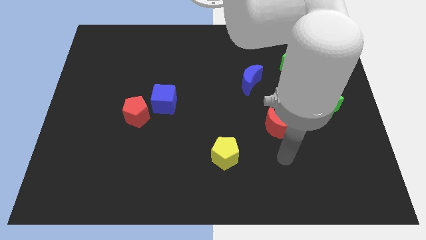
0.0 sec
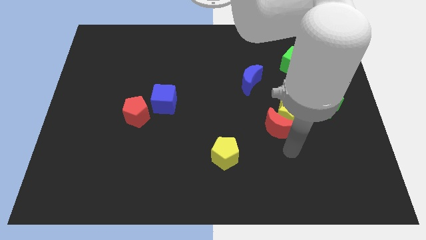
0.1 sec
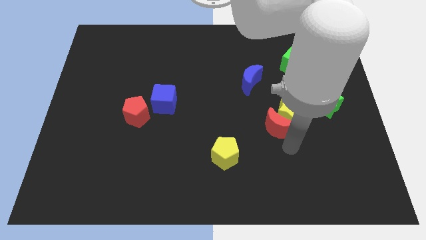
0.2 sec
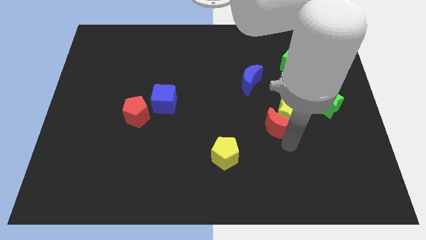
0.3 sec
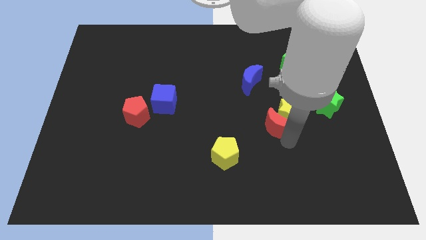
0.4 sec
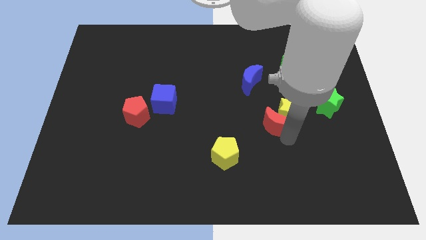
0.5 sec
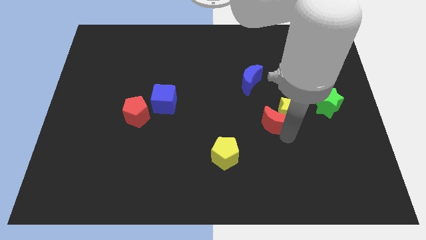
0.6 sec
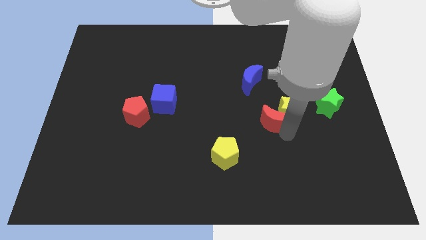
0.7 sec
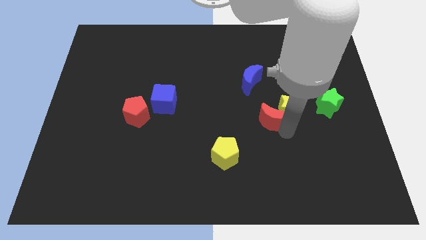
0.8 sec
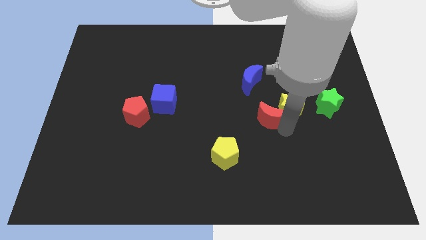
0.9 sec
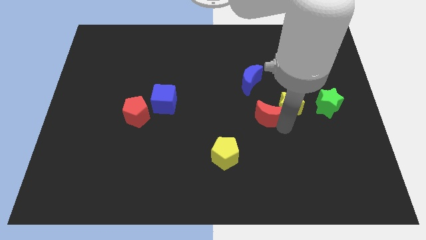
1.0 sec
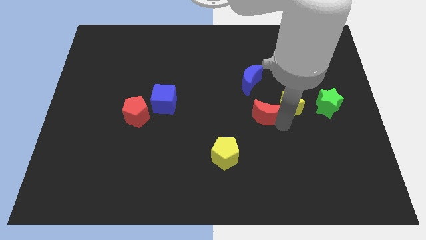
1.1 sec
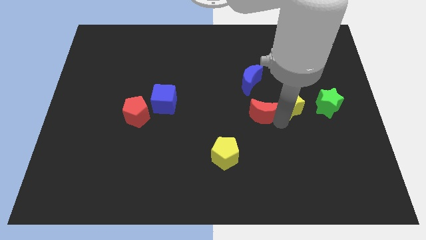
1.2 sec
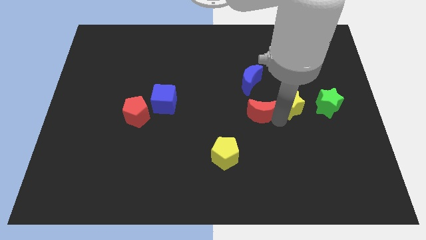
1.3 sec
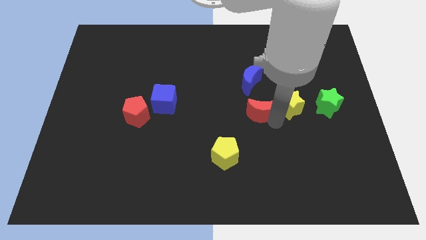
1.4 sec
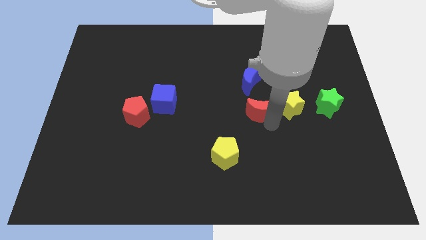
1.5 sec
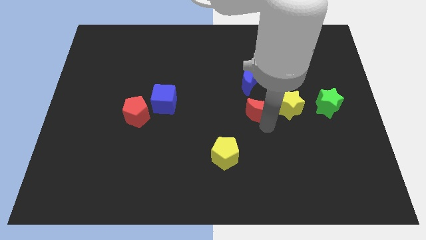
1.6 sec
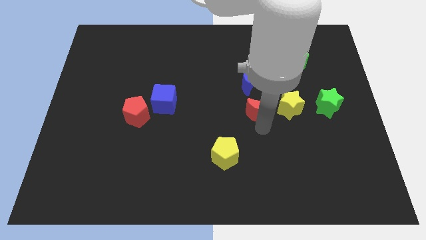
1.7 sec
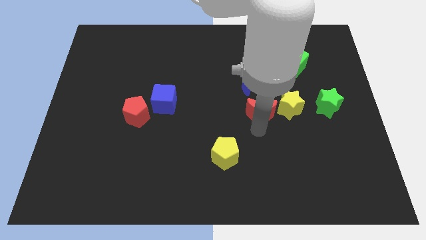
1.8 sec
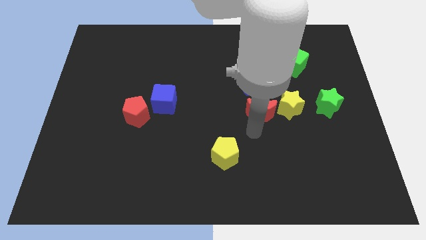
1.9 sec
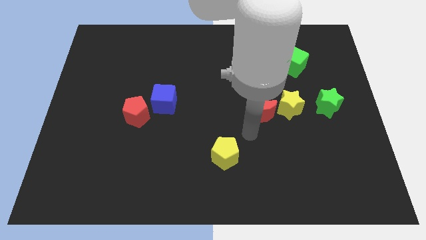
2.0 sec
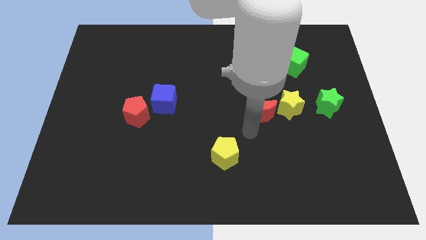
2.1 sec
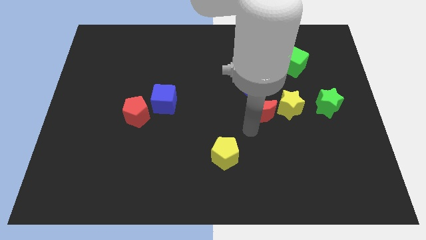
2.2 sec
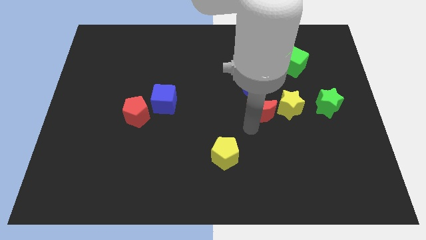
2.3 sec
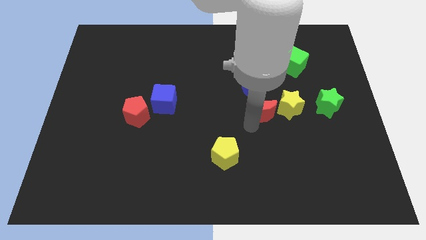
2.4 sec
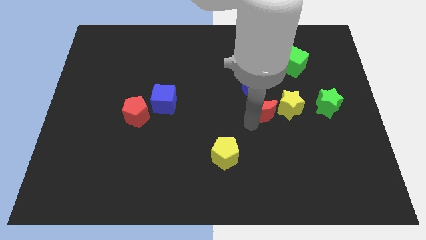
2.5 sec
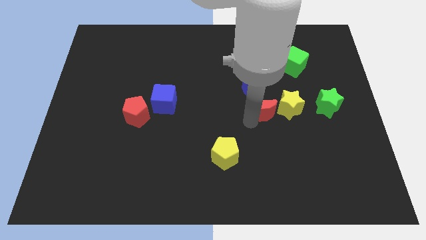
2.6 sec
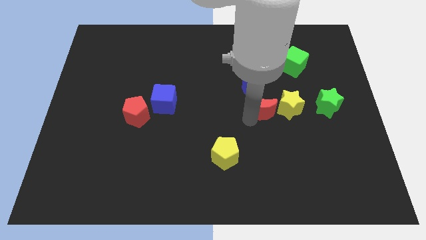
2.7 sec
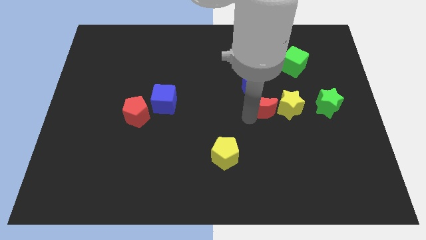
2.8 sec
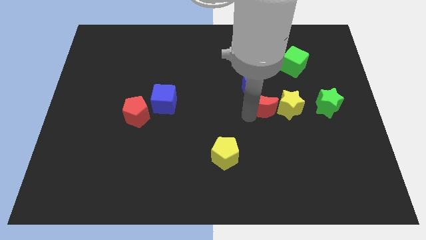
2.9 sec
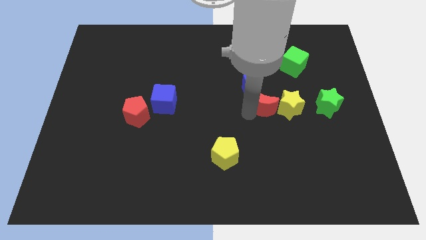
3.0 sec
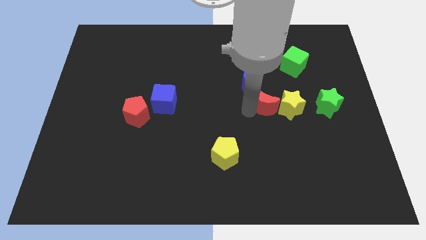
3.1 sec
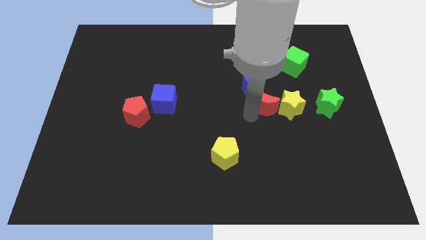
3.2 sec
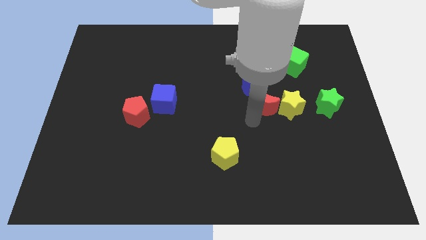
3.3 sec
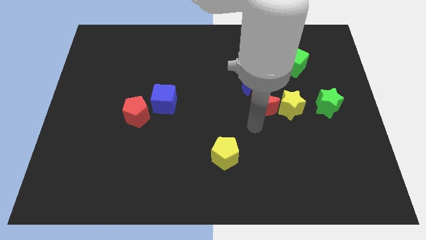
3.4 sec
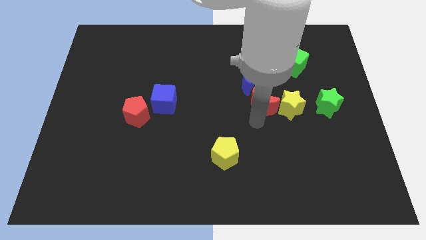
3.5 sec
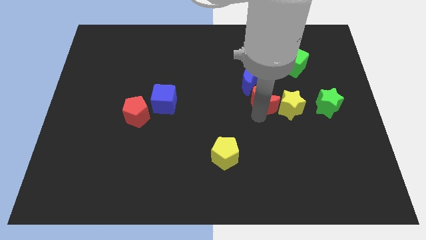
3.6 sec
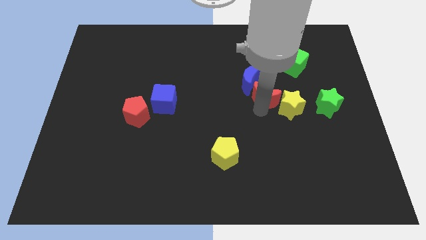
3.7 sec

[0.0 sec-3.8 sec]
push the red moon slightly upwards

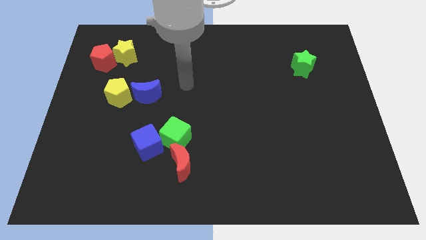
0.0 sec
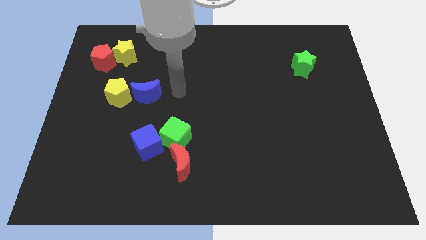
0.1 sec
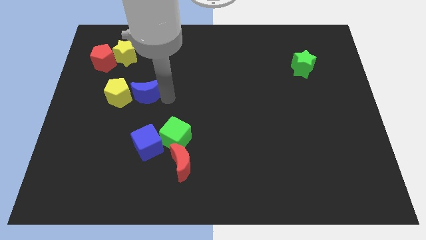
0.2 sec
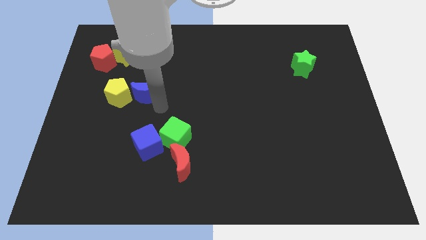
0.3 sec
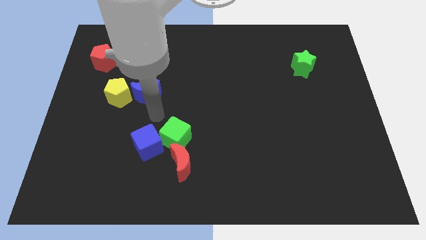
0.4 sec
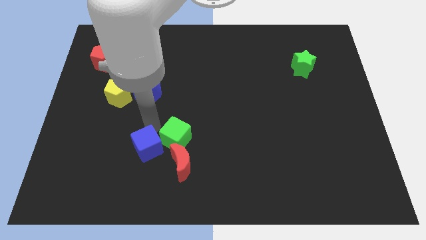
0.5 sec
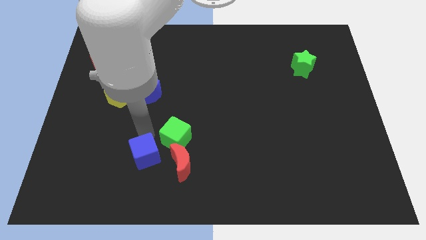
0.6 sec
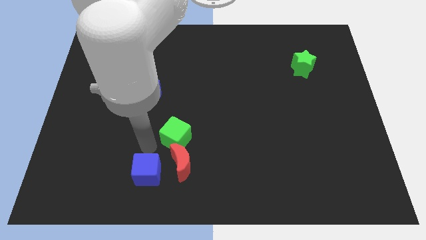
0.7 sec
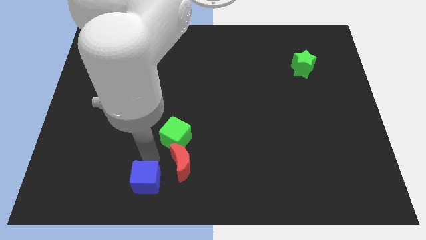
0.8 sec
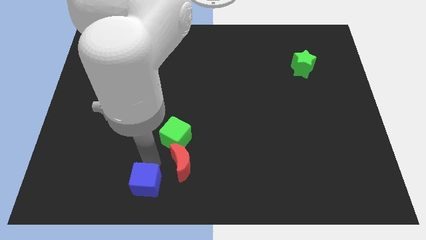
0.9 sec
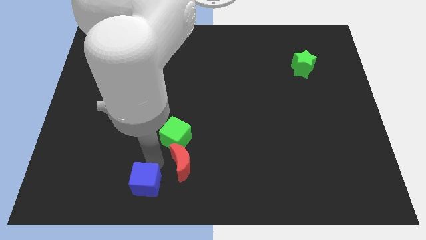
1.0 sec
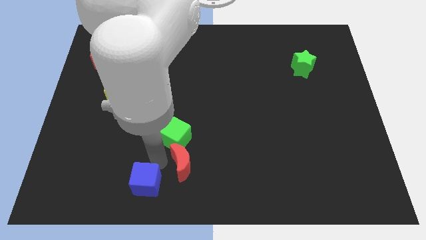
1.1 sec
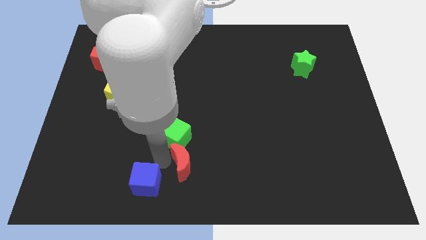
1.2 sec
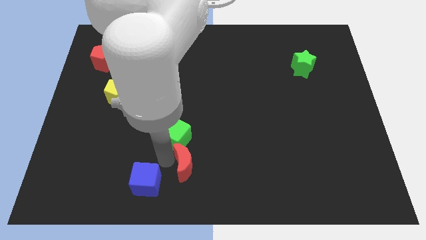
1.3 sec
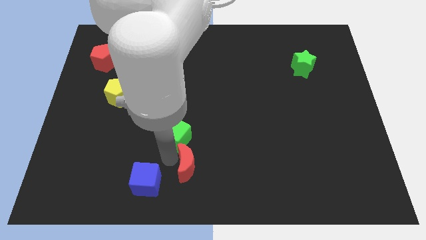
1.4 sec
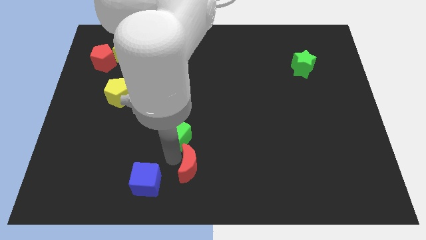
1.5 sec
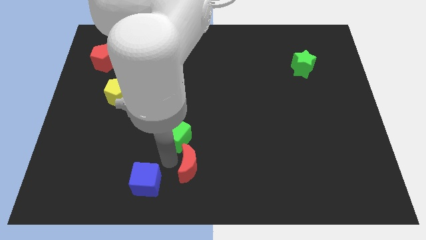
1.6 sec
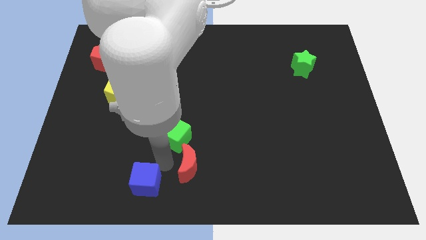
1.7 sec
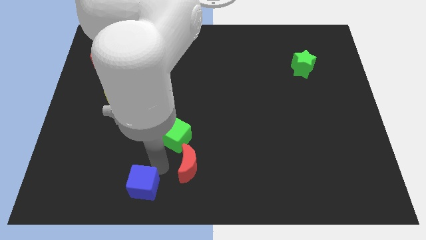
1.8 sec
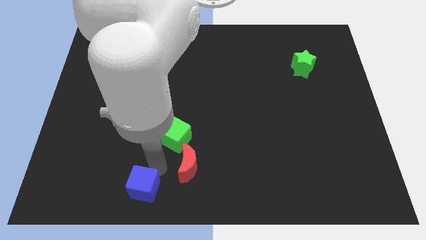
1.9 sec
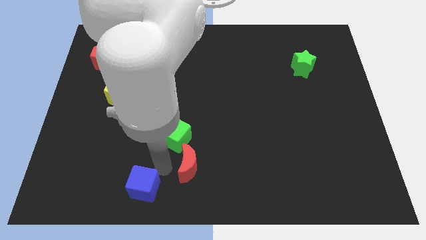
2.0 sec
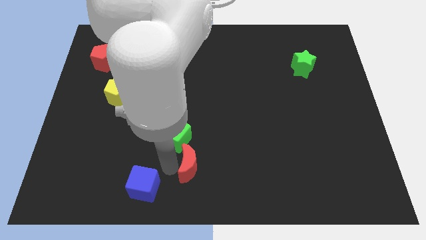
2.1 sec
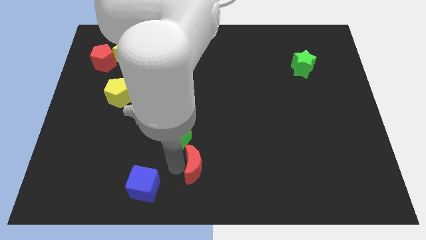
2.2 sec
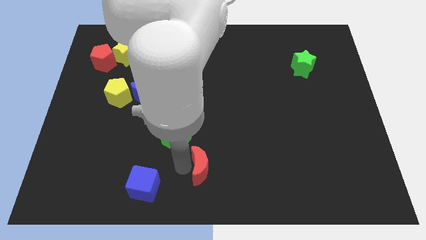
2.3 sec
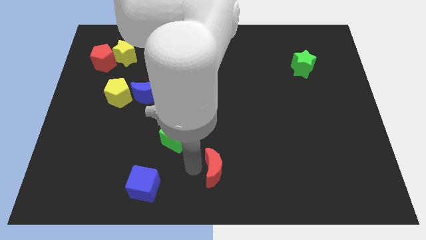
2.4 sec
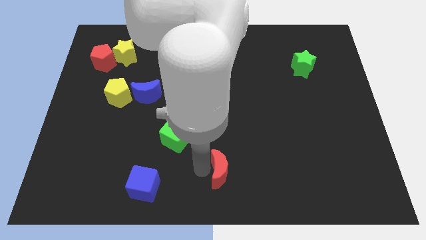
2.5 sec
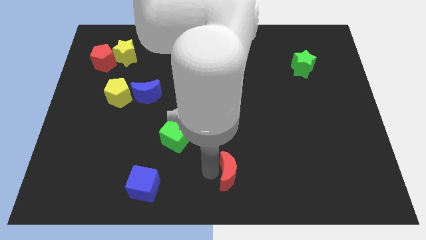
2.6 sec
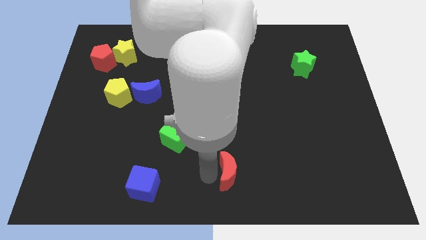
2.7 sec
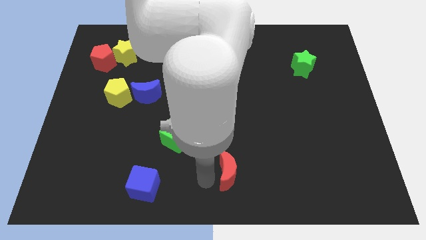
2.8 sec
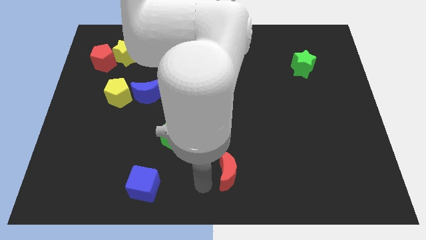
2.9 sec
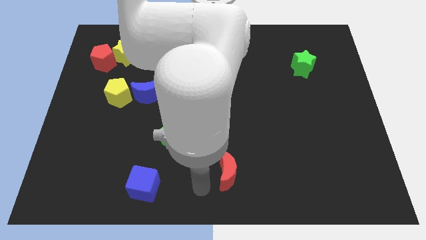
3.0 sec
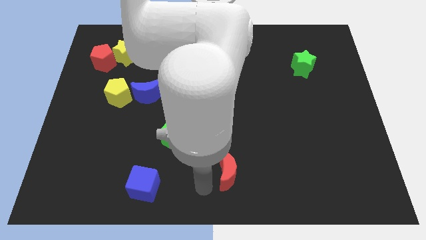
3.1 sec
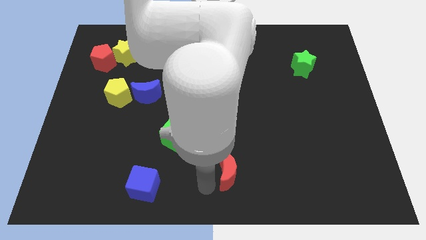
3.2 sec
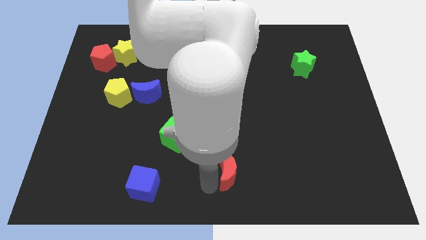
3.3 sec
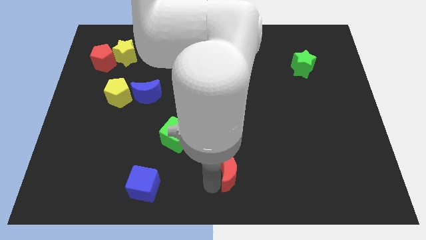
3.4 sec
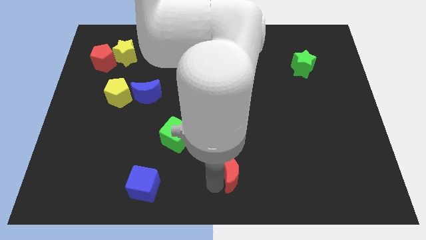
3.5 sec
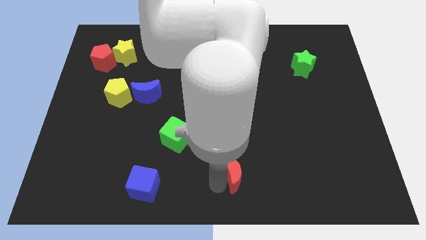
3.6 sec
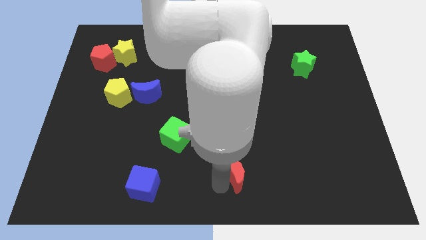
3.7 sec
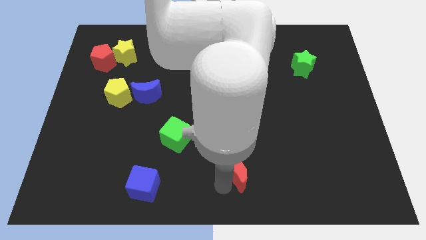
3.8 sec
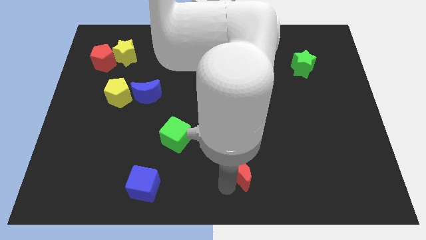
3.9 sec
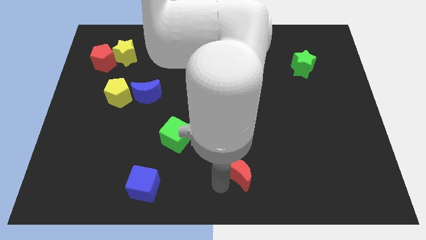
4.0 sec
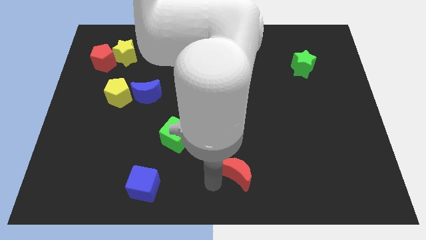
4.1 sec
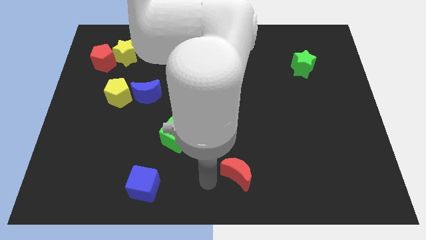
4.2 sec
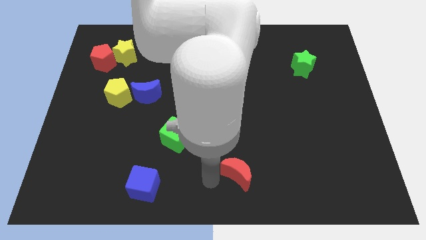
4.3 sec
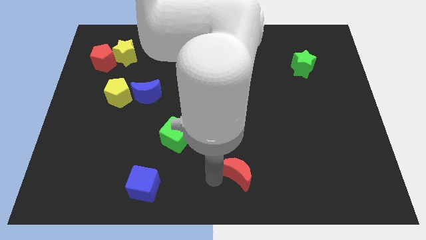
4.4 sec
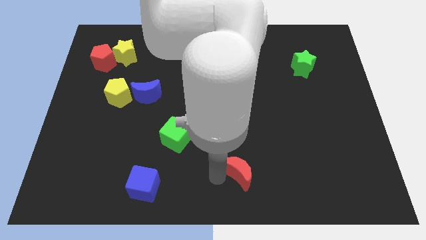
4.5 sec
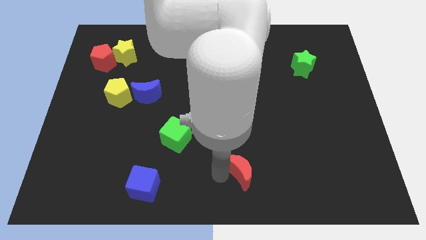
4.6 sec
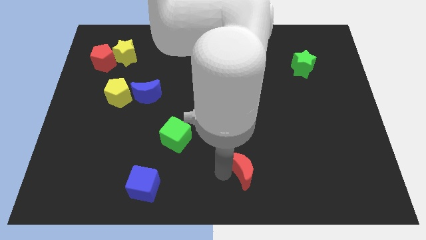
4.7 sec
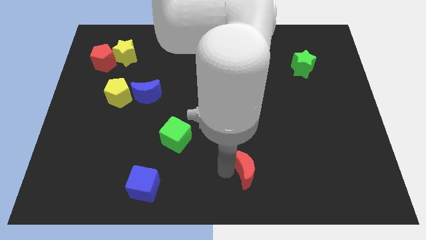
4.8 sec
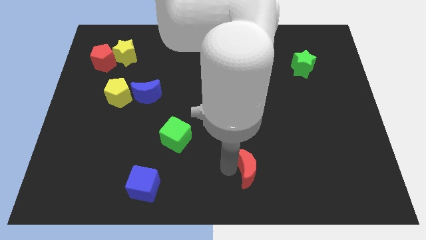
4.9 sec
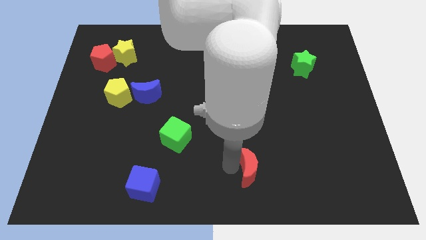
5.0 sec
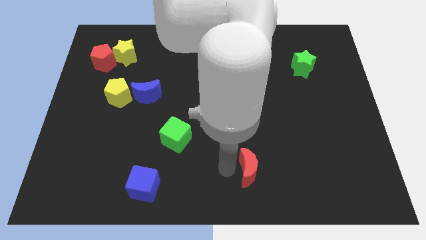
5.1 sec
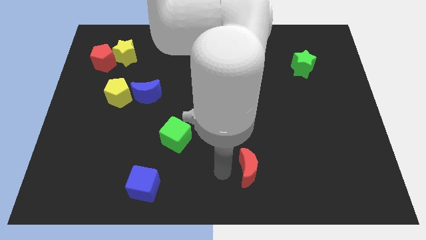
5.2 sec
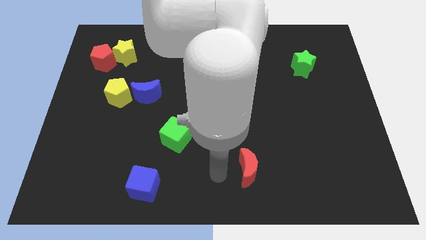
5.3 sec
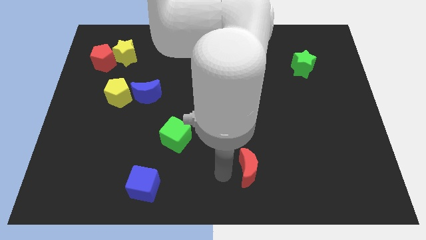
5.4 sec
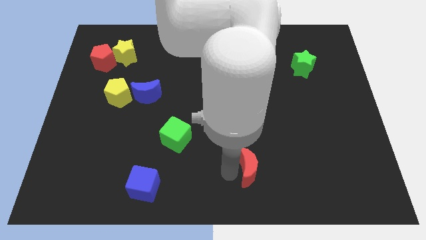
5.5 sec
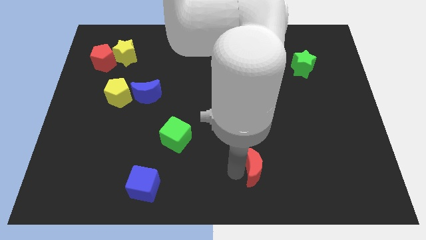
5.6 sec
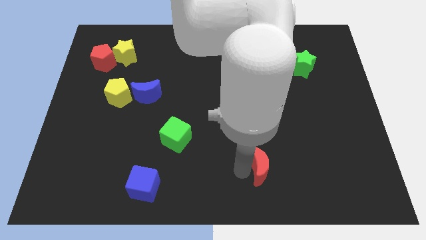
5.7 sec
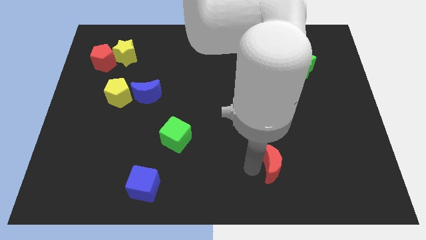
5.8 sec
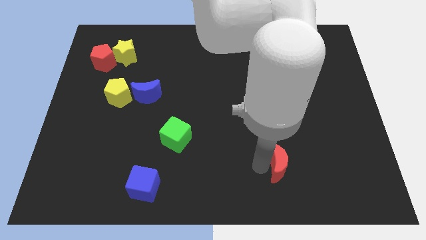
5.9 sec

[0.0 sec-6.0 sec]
slide the red moon to the right
